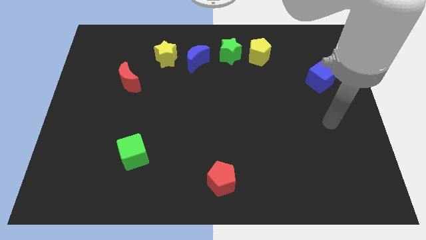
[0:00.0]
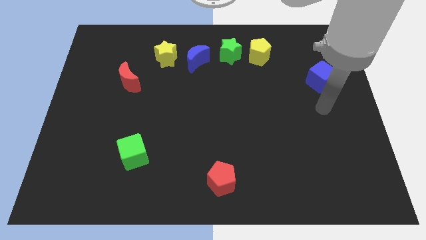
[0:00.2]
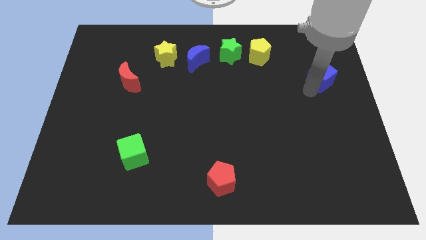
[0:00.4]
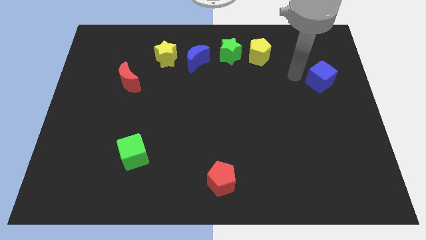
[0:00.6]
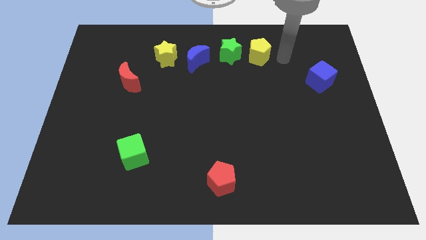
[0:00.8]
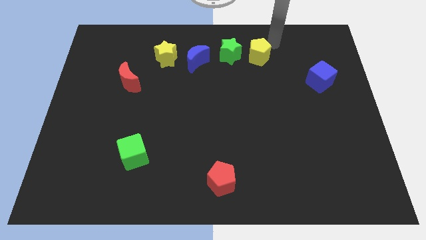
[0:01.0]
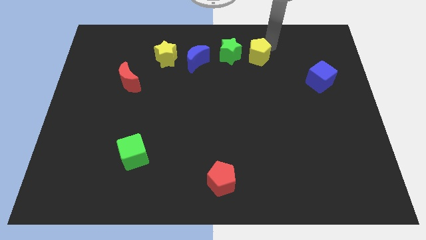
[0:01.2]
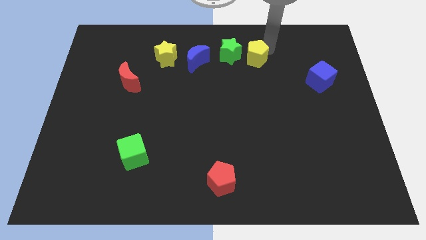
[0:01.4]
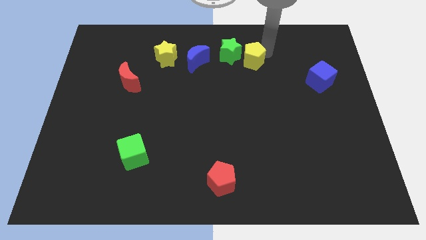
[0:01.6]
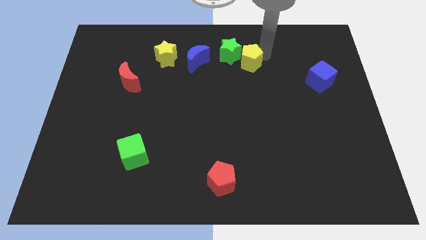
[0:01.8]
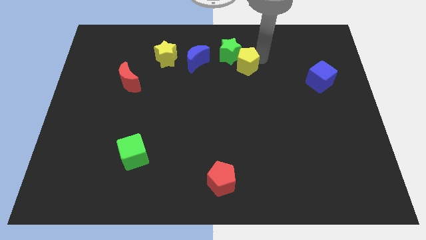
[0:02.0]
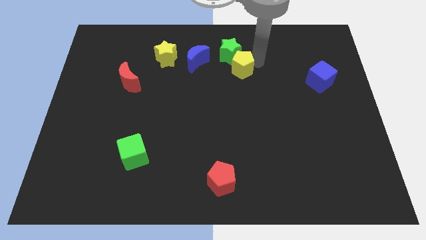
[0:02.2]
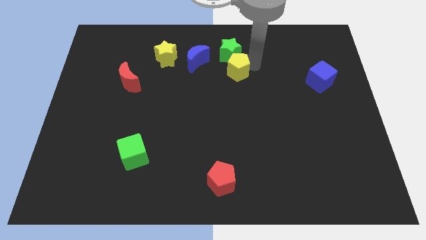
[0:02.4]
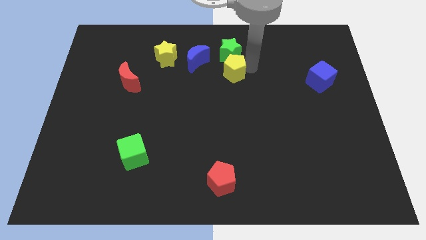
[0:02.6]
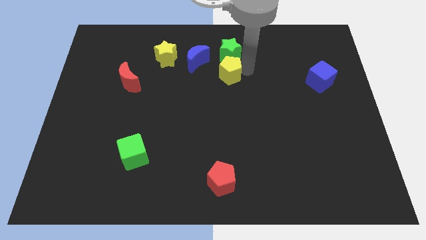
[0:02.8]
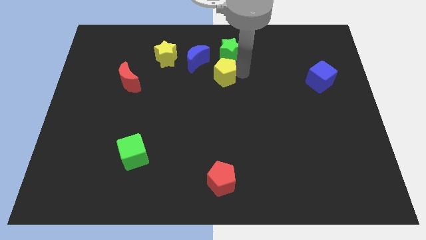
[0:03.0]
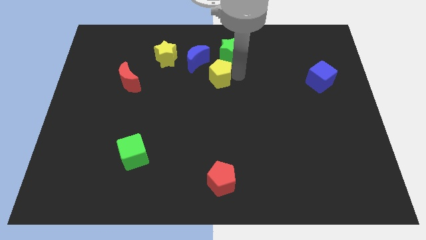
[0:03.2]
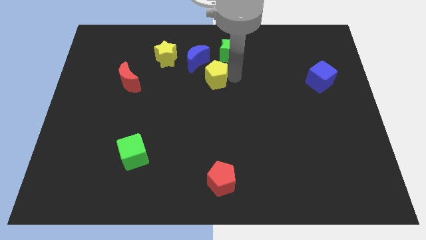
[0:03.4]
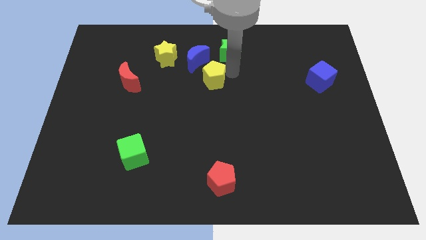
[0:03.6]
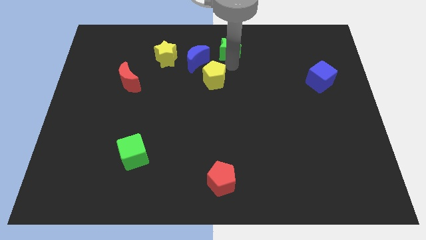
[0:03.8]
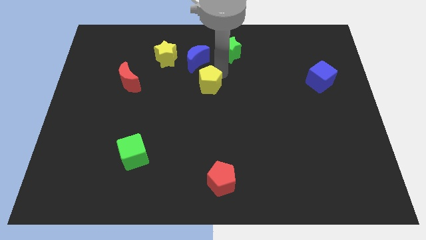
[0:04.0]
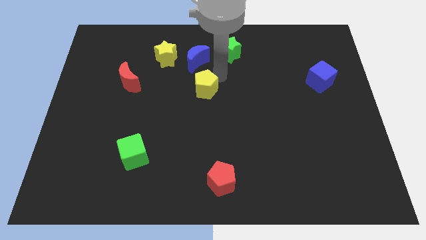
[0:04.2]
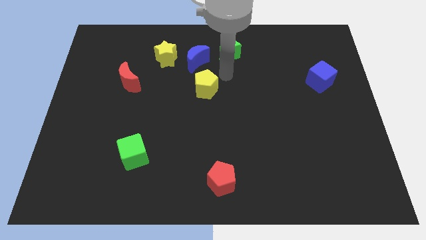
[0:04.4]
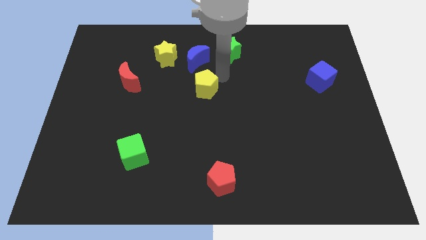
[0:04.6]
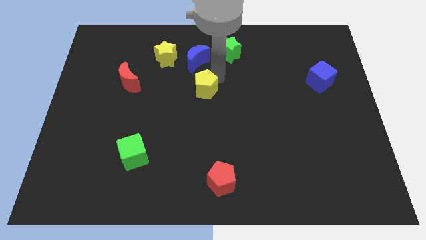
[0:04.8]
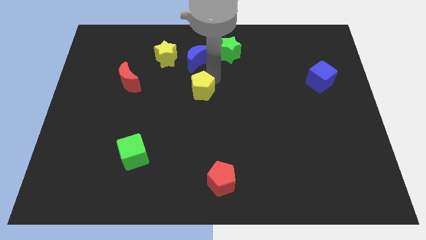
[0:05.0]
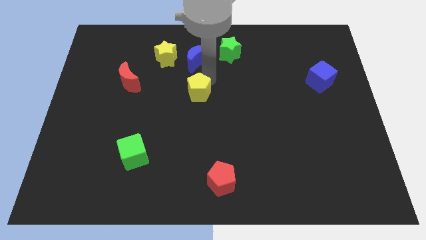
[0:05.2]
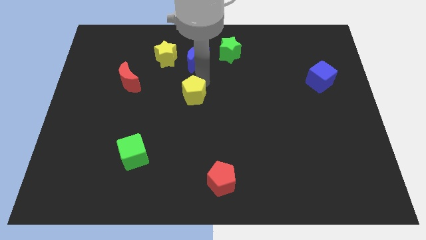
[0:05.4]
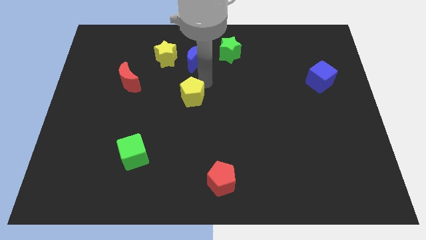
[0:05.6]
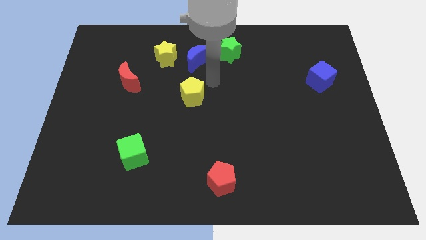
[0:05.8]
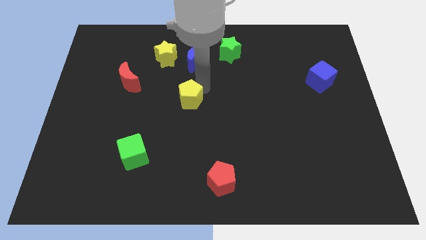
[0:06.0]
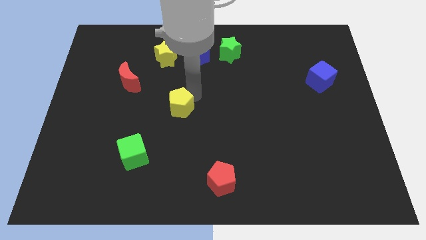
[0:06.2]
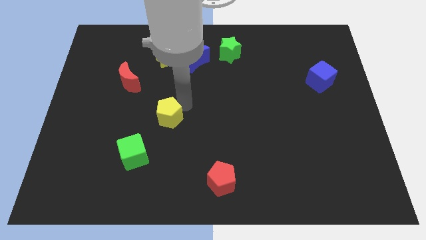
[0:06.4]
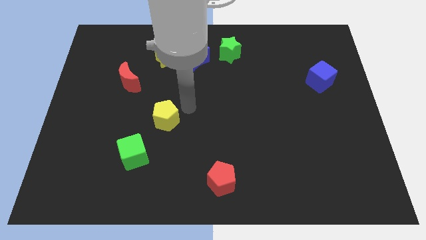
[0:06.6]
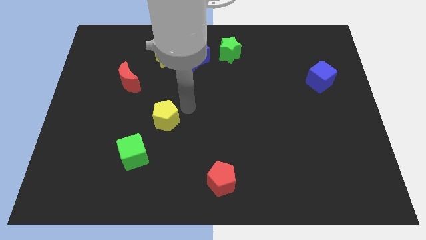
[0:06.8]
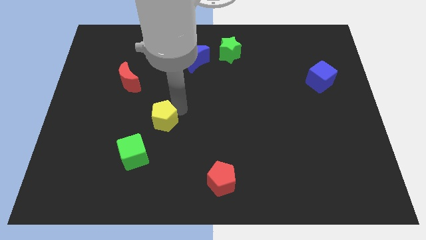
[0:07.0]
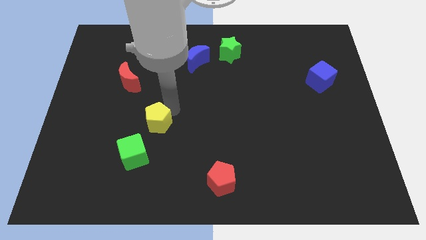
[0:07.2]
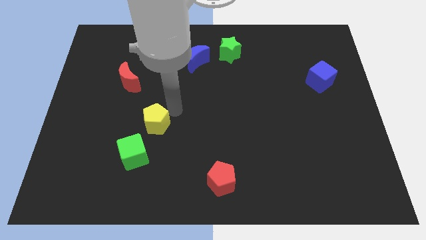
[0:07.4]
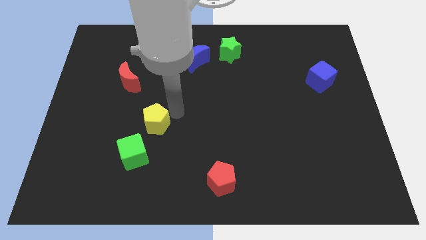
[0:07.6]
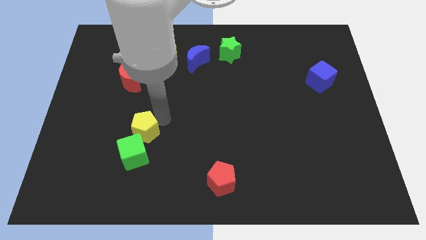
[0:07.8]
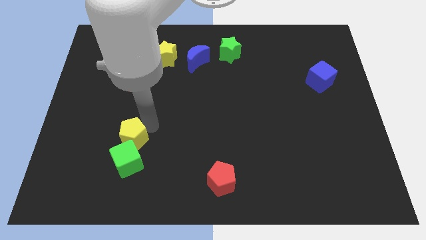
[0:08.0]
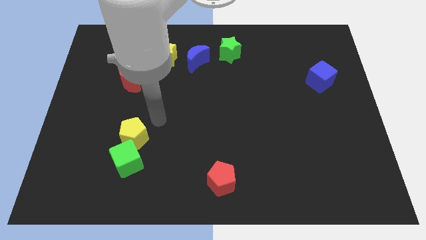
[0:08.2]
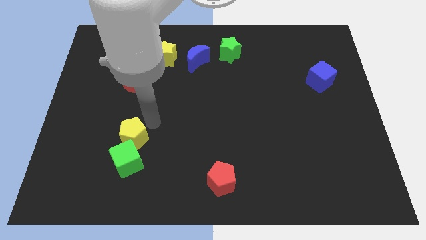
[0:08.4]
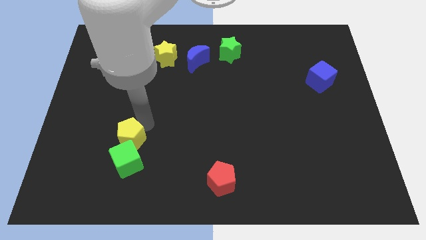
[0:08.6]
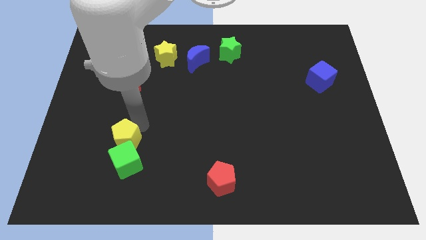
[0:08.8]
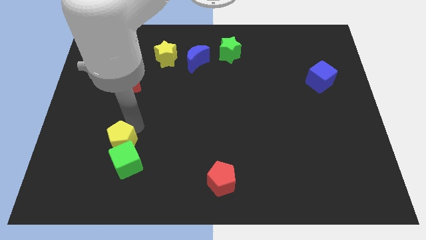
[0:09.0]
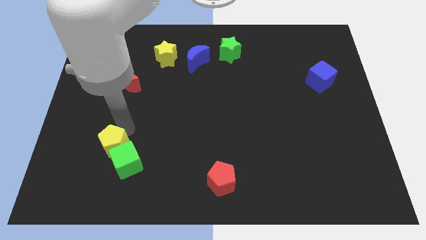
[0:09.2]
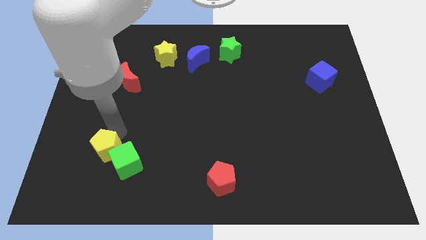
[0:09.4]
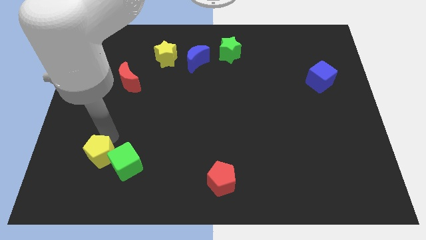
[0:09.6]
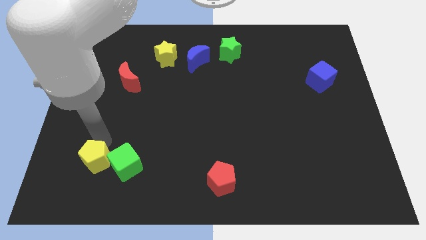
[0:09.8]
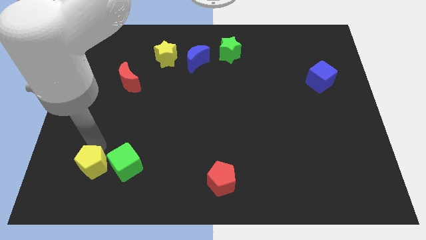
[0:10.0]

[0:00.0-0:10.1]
move the yellow pentagon to the bottom left side of the green cube

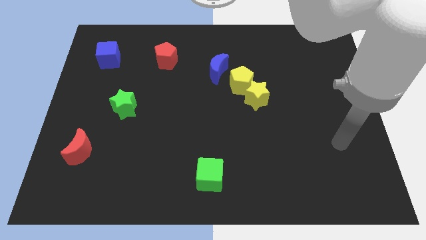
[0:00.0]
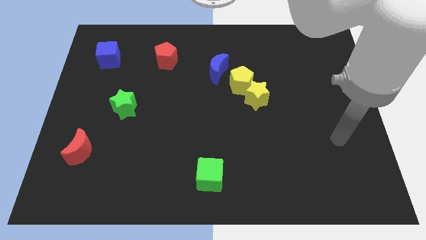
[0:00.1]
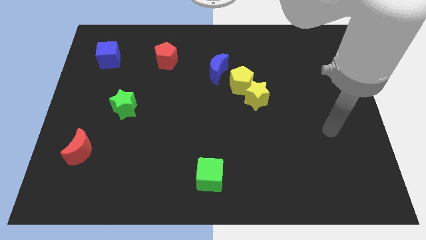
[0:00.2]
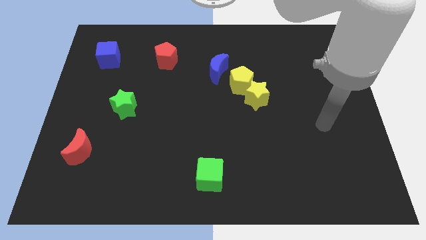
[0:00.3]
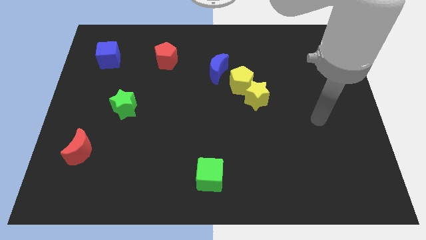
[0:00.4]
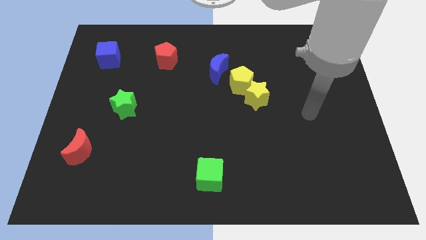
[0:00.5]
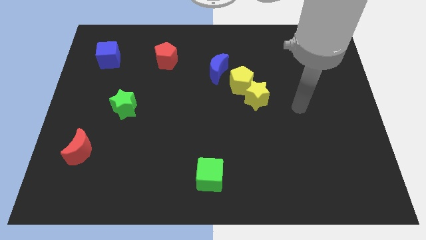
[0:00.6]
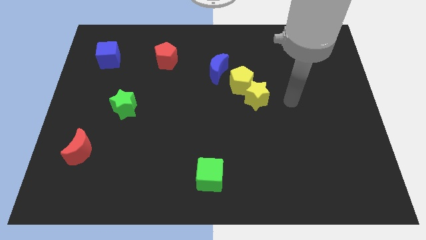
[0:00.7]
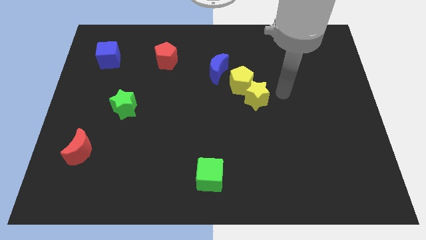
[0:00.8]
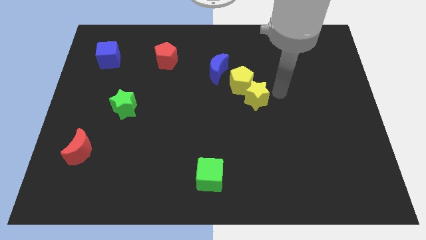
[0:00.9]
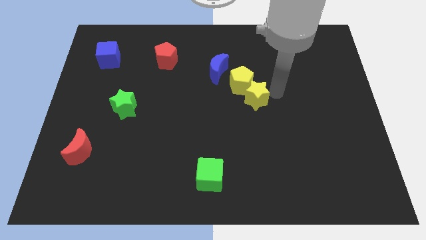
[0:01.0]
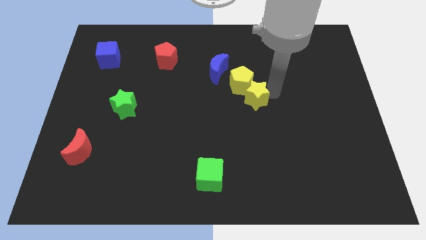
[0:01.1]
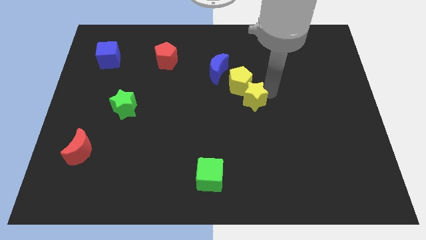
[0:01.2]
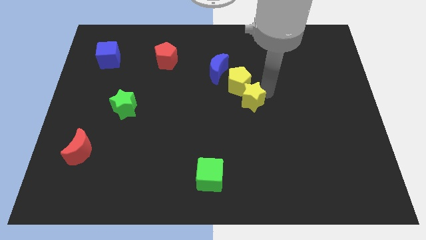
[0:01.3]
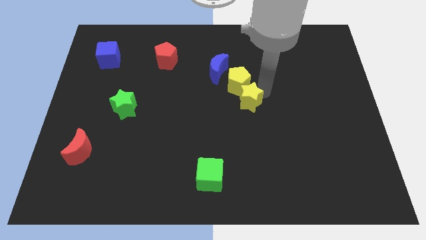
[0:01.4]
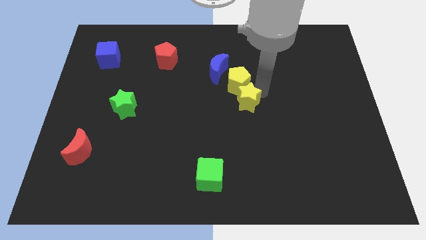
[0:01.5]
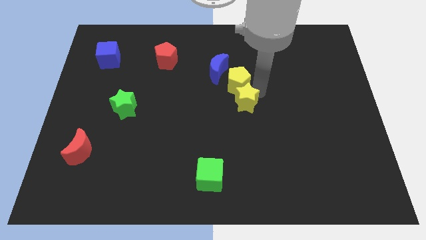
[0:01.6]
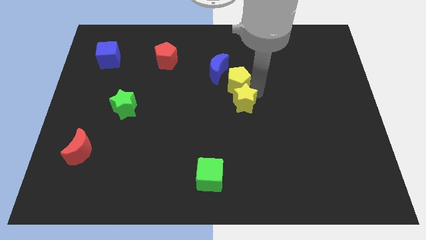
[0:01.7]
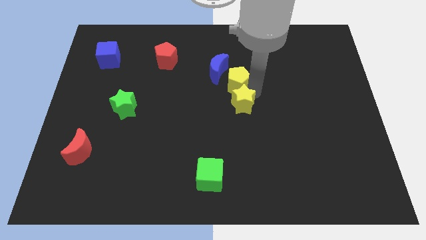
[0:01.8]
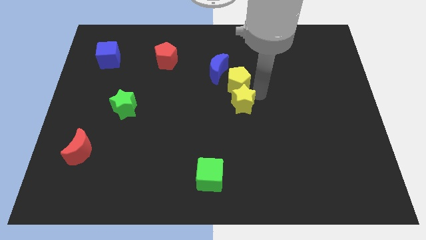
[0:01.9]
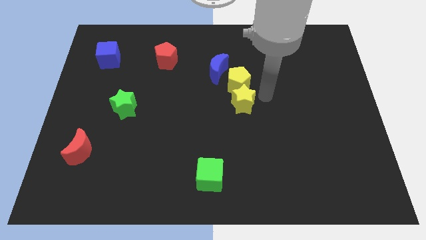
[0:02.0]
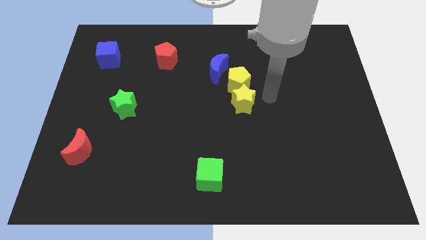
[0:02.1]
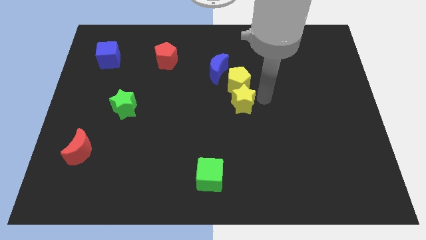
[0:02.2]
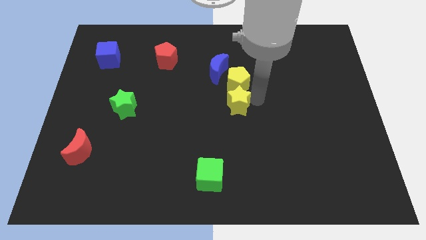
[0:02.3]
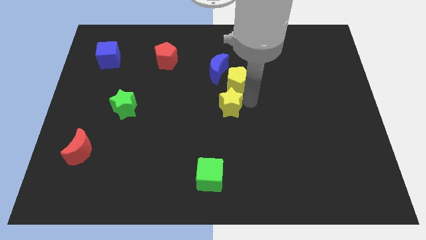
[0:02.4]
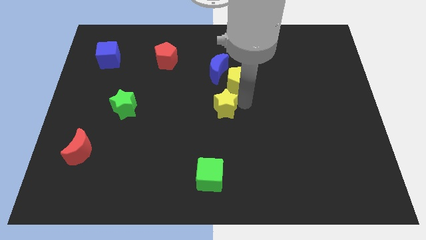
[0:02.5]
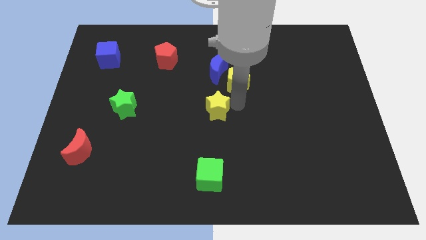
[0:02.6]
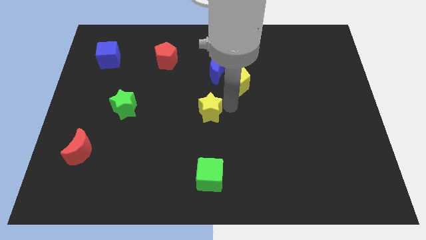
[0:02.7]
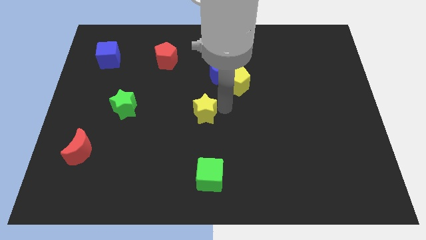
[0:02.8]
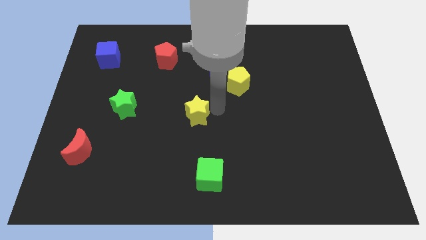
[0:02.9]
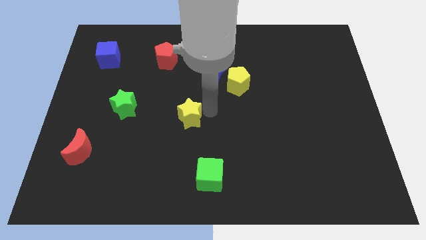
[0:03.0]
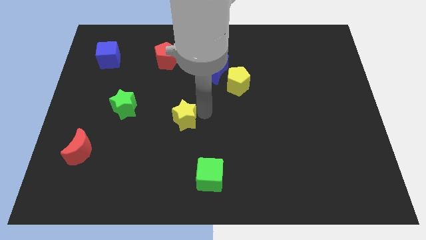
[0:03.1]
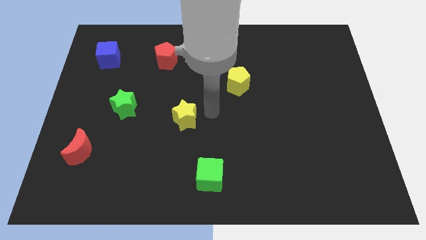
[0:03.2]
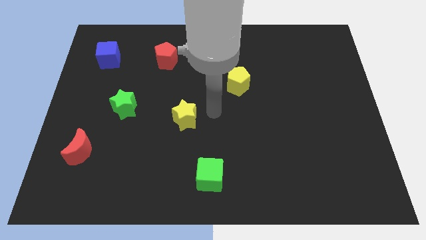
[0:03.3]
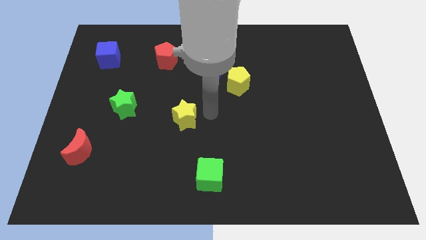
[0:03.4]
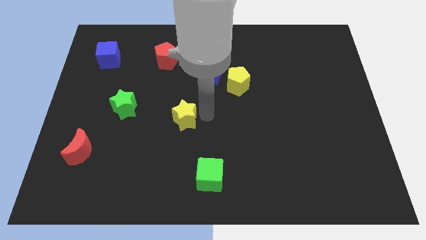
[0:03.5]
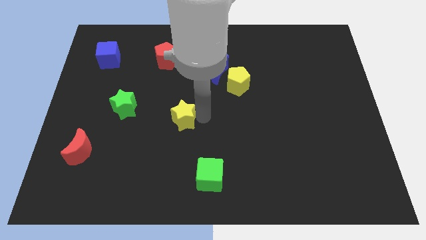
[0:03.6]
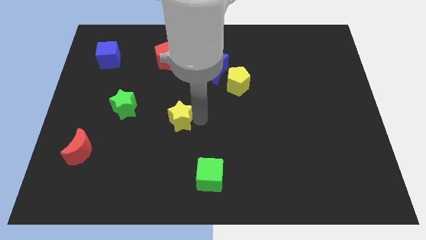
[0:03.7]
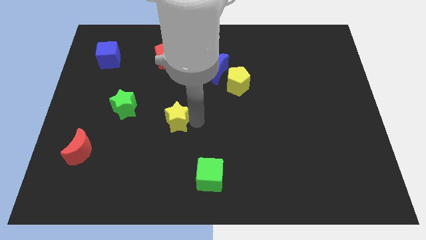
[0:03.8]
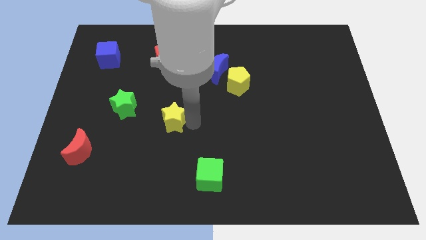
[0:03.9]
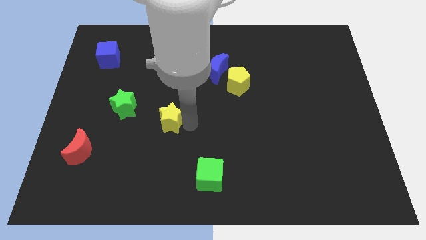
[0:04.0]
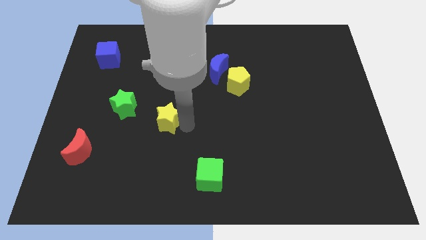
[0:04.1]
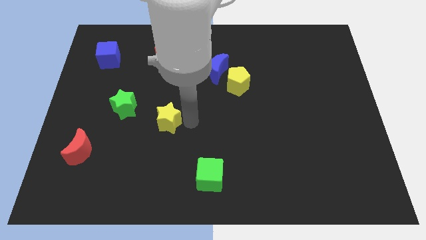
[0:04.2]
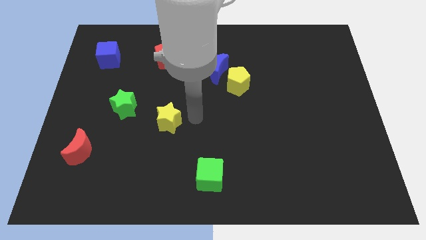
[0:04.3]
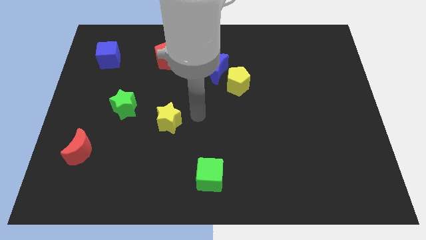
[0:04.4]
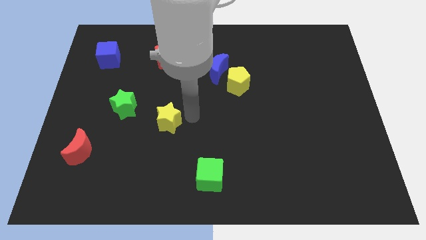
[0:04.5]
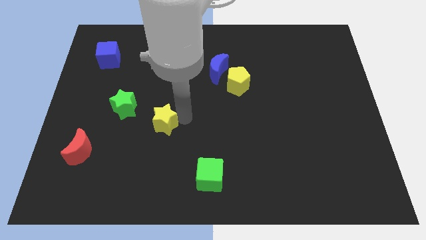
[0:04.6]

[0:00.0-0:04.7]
push the yellow star to the bottom right of the green star
